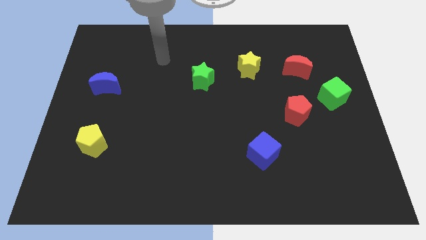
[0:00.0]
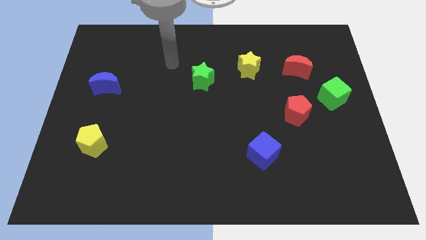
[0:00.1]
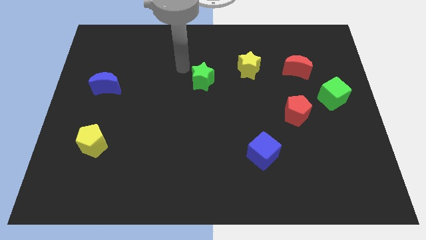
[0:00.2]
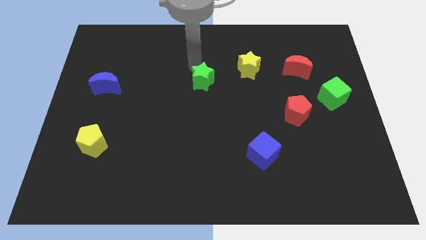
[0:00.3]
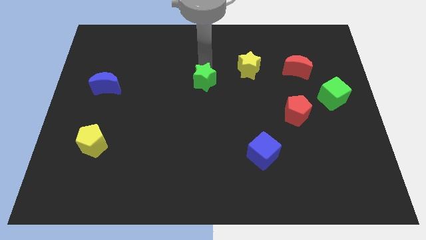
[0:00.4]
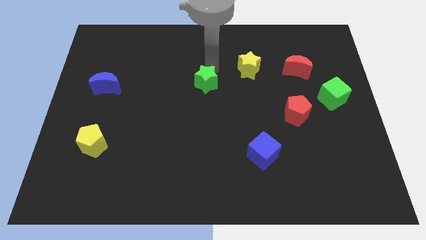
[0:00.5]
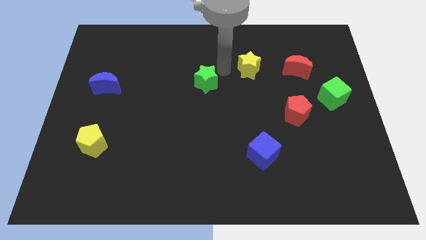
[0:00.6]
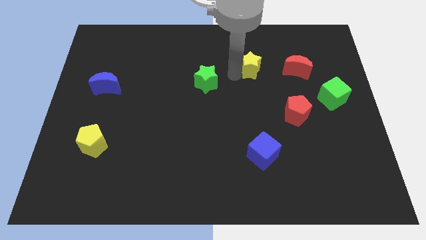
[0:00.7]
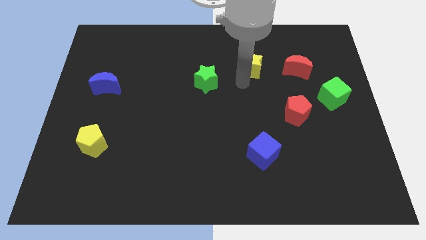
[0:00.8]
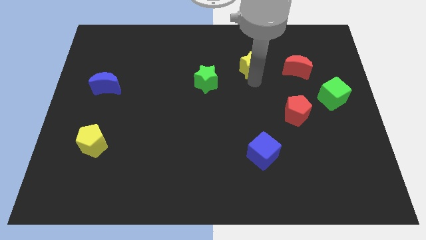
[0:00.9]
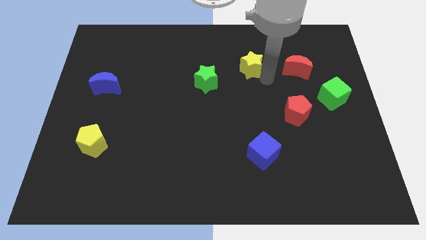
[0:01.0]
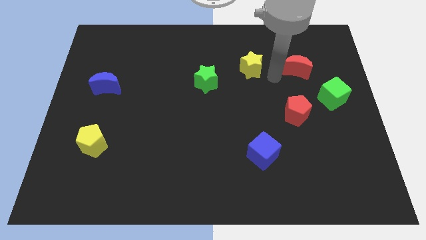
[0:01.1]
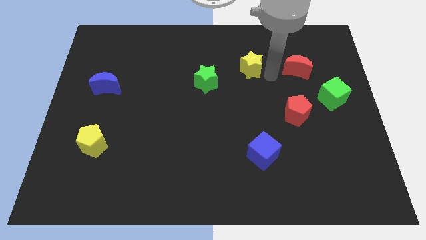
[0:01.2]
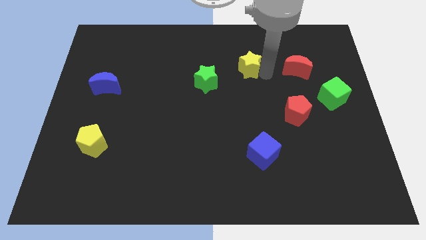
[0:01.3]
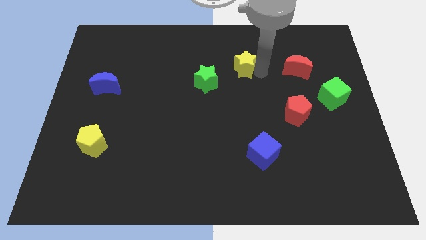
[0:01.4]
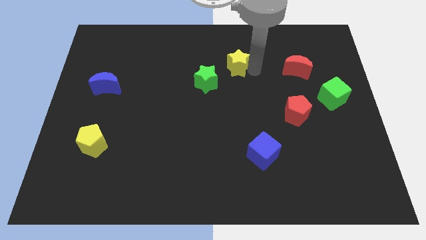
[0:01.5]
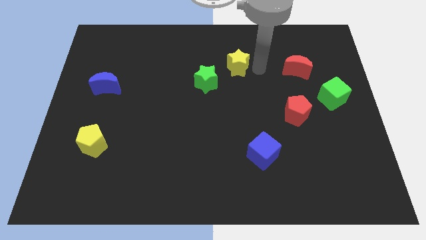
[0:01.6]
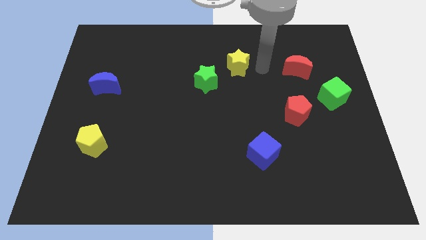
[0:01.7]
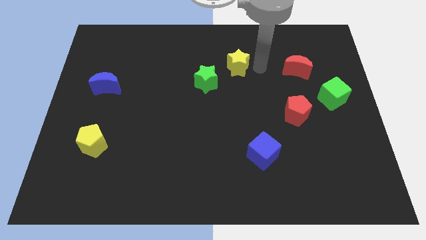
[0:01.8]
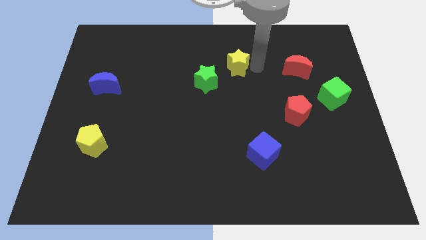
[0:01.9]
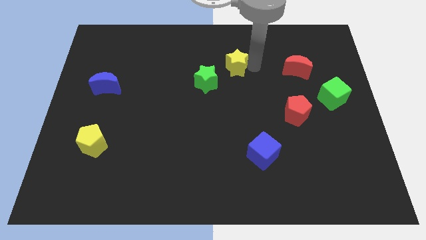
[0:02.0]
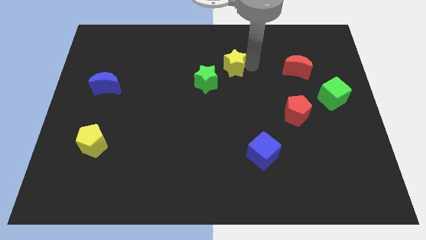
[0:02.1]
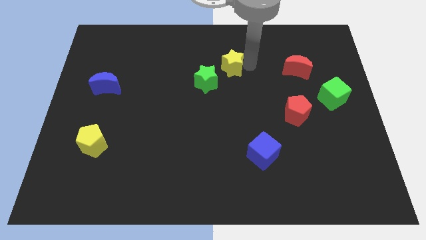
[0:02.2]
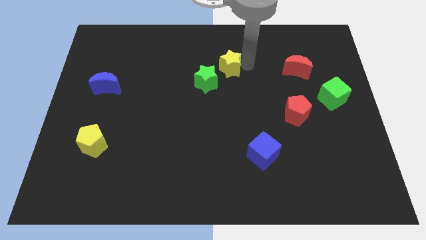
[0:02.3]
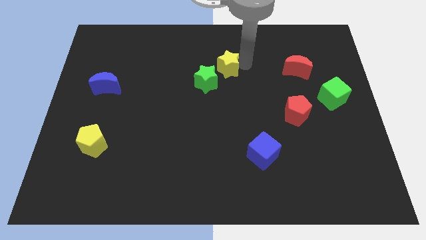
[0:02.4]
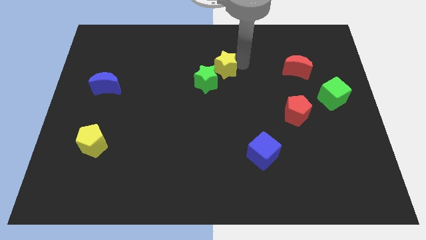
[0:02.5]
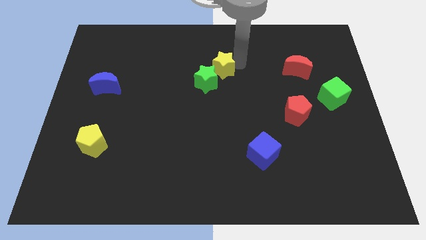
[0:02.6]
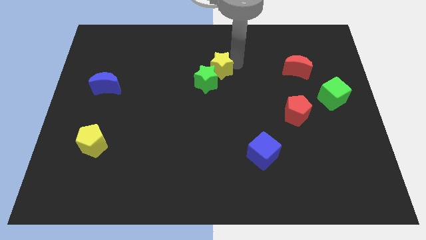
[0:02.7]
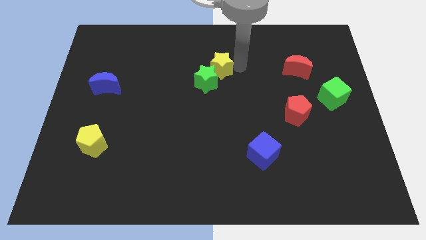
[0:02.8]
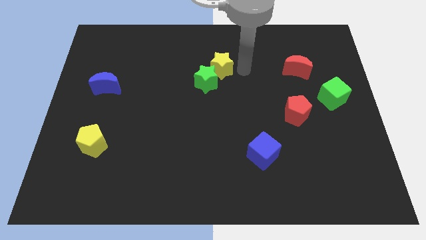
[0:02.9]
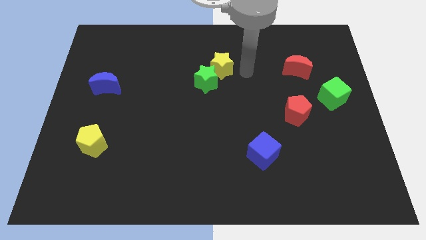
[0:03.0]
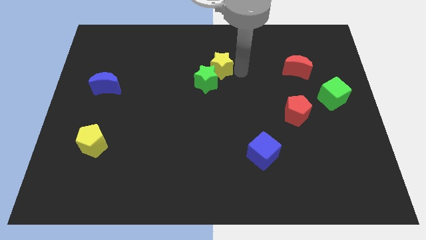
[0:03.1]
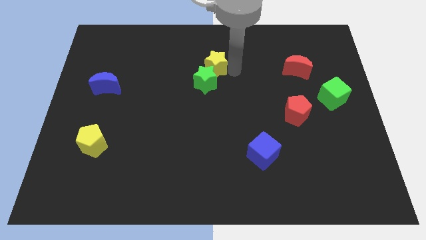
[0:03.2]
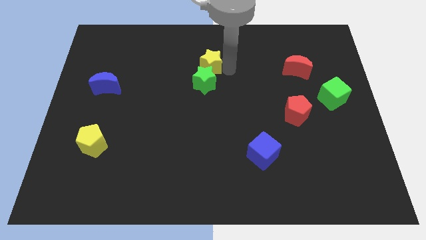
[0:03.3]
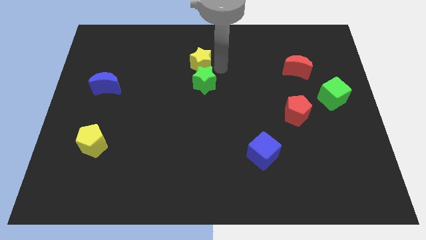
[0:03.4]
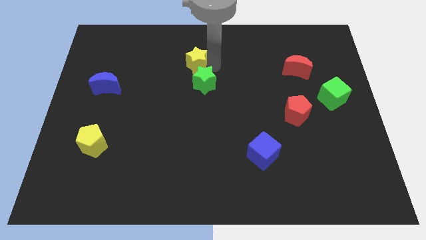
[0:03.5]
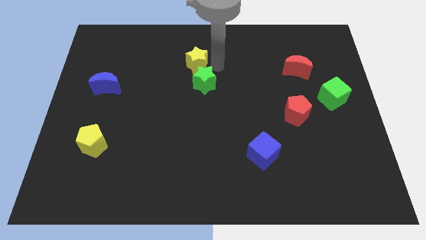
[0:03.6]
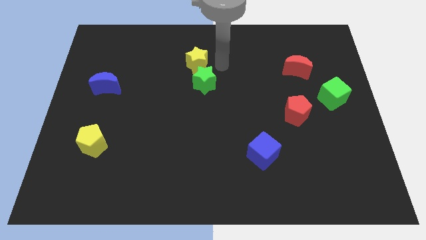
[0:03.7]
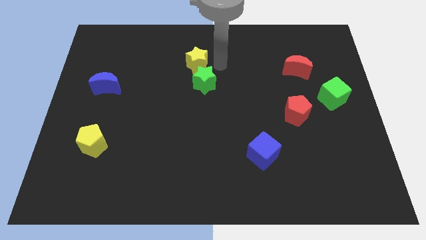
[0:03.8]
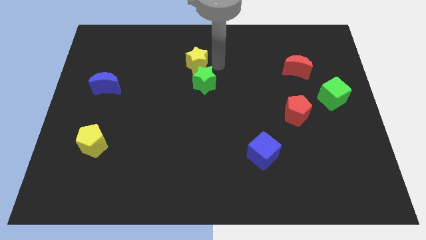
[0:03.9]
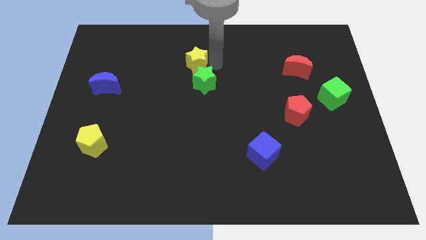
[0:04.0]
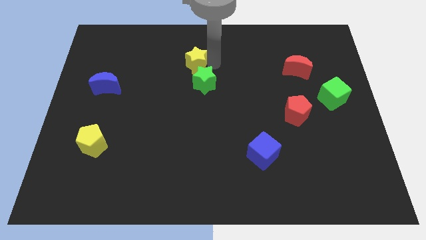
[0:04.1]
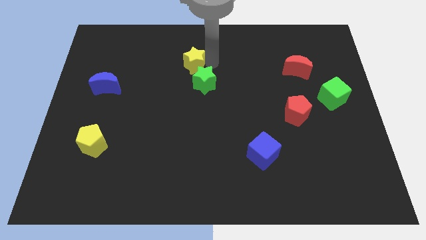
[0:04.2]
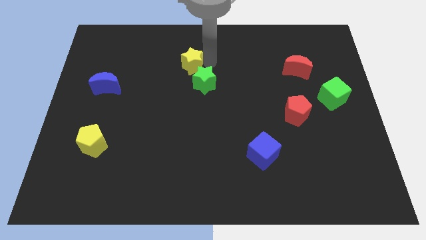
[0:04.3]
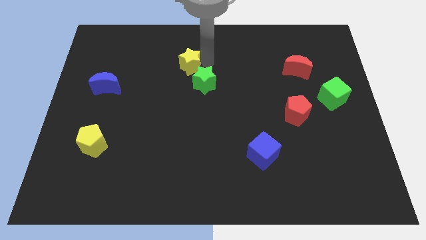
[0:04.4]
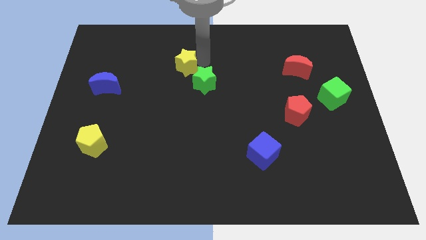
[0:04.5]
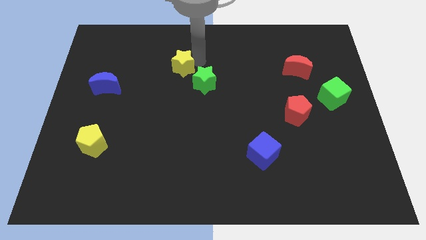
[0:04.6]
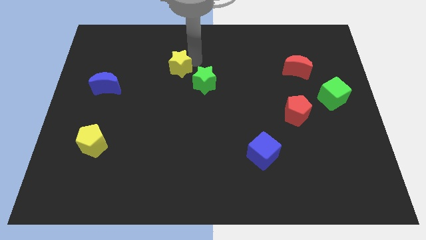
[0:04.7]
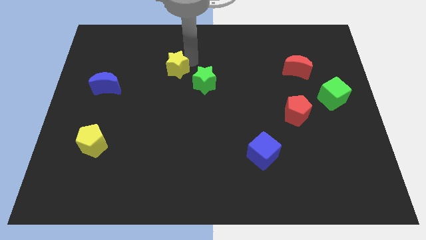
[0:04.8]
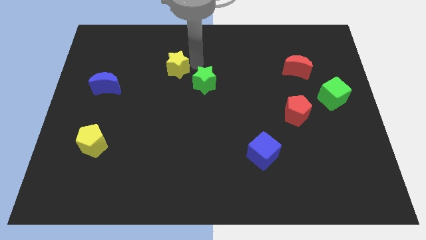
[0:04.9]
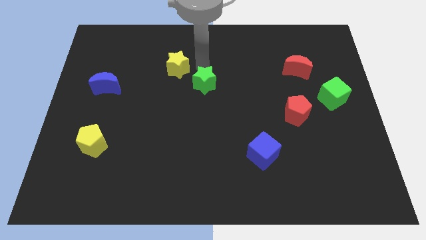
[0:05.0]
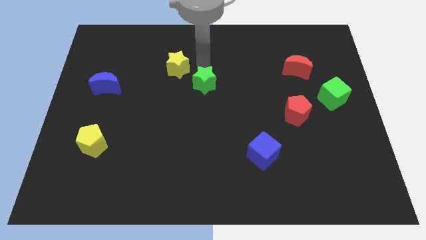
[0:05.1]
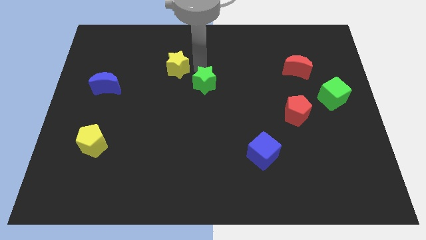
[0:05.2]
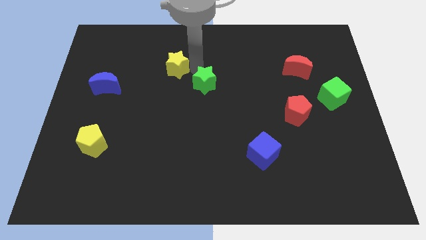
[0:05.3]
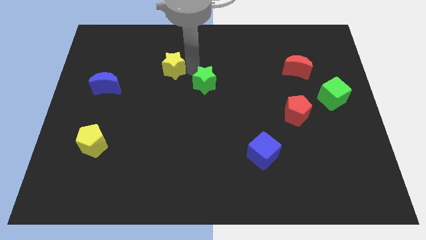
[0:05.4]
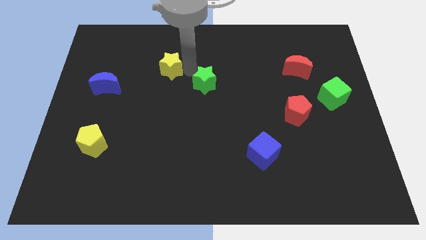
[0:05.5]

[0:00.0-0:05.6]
slide the yellow star left

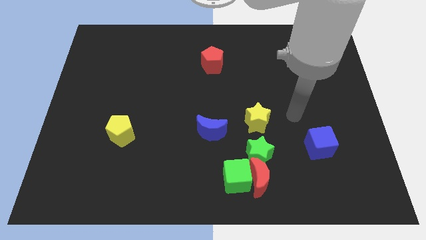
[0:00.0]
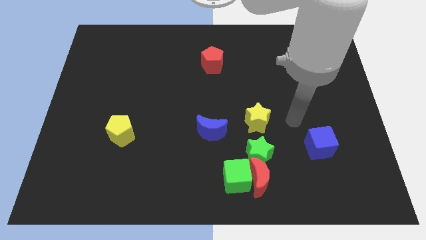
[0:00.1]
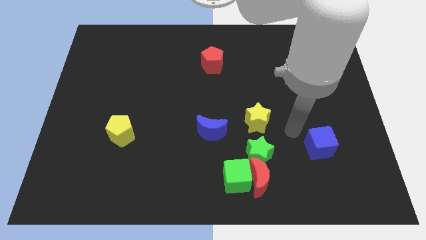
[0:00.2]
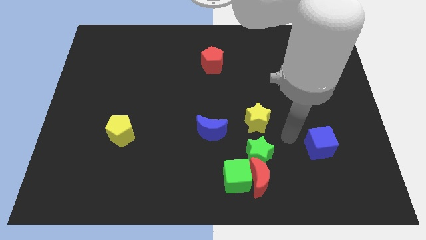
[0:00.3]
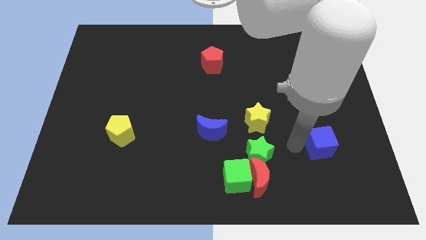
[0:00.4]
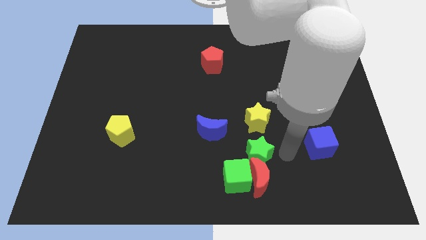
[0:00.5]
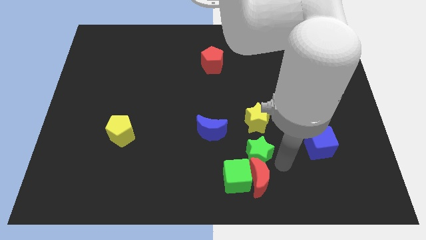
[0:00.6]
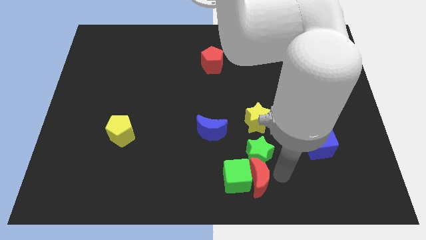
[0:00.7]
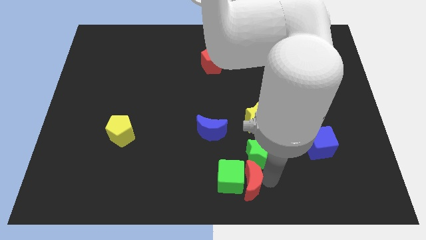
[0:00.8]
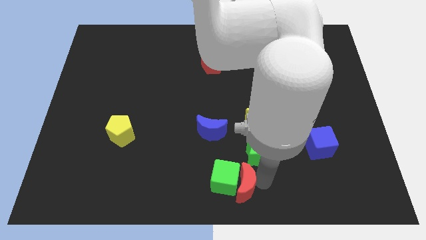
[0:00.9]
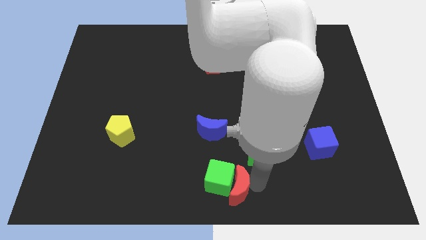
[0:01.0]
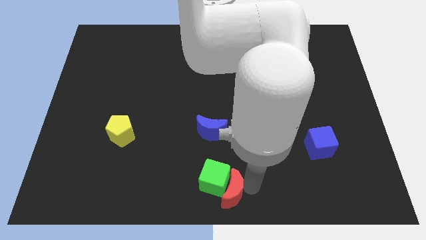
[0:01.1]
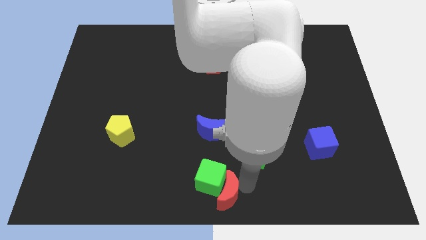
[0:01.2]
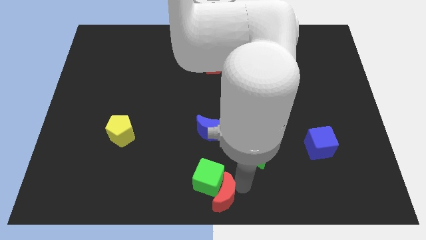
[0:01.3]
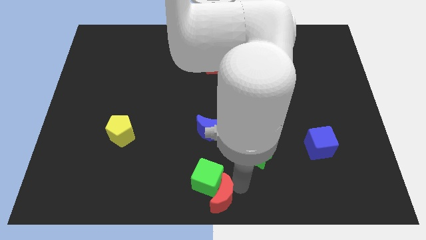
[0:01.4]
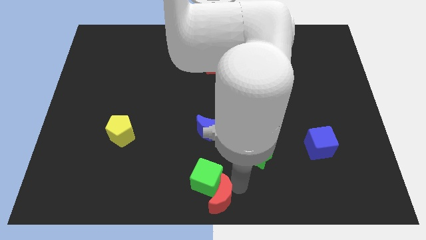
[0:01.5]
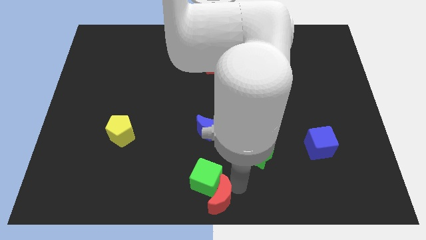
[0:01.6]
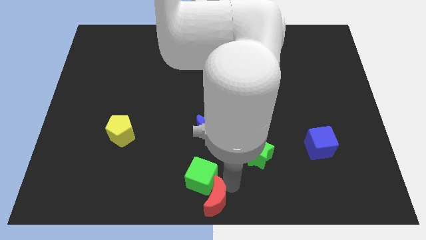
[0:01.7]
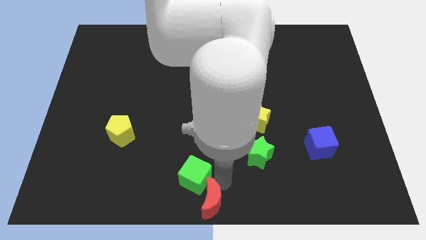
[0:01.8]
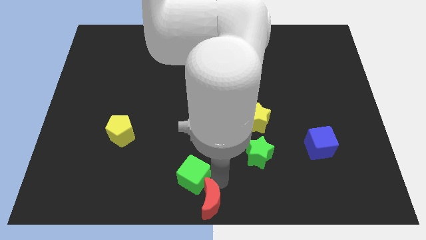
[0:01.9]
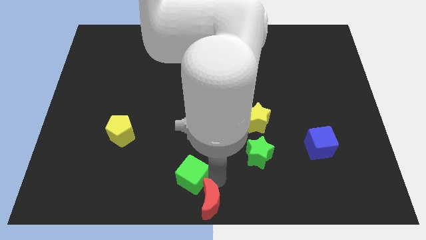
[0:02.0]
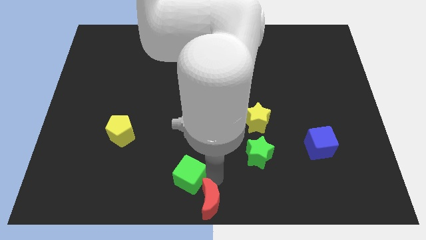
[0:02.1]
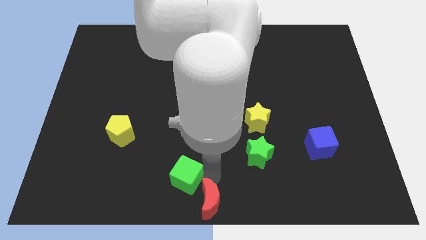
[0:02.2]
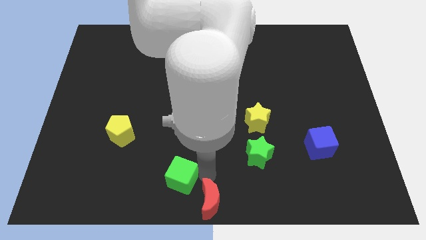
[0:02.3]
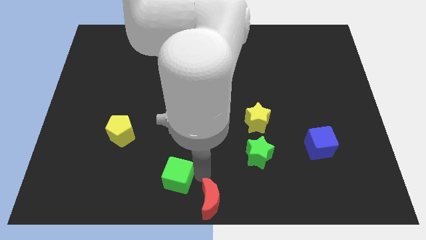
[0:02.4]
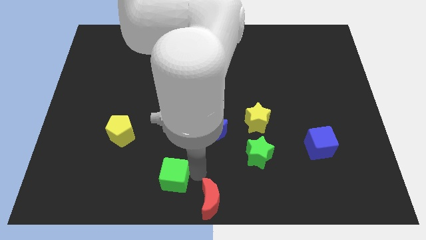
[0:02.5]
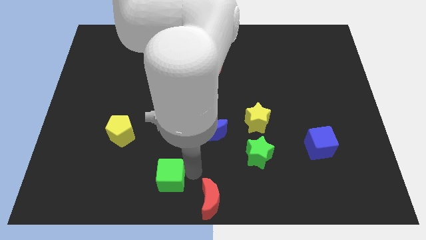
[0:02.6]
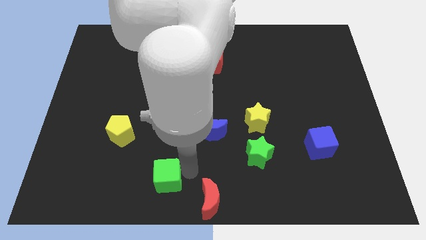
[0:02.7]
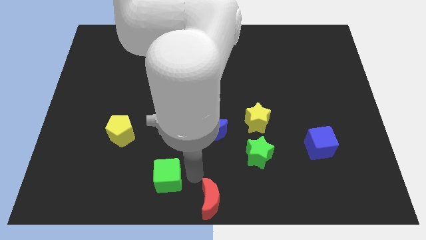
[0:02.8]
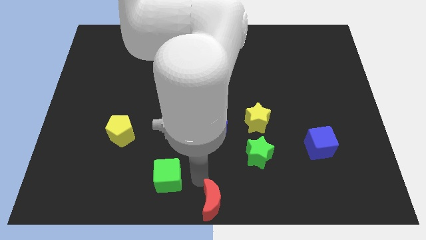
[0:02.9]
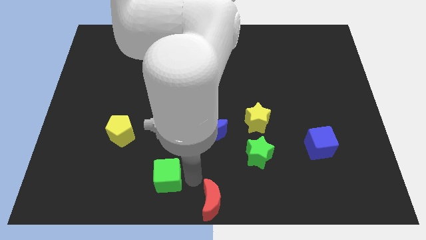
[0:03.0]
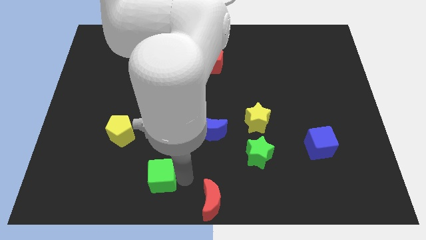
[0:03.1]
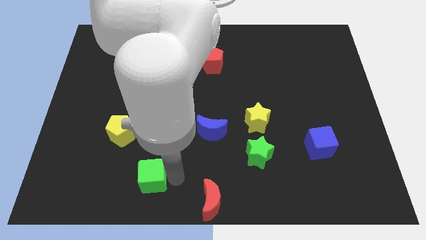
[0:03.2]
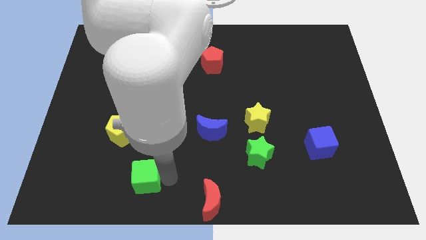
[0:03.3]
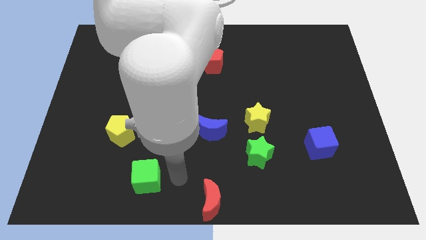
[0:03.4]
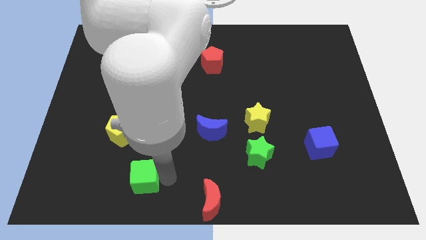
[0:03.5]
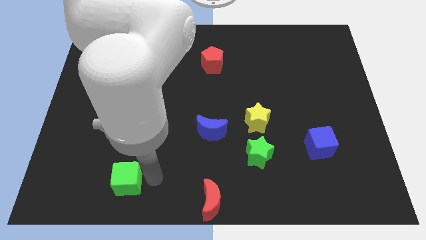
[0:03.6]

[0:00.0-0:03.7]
slide the green cube left
